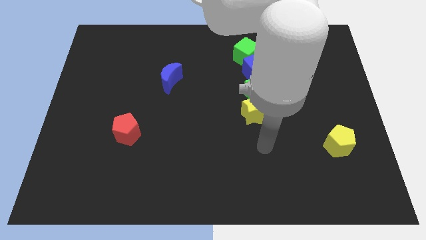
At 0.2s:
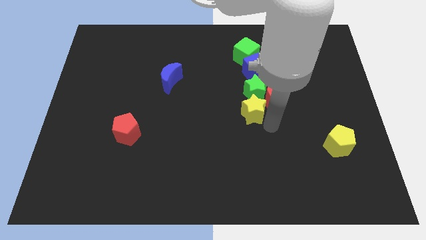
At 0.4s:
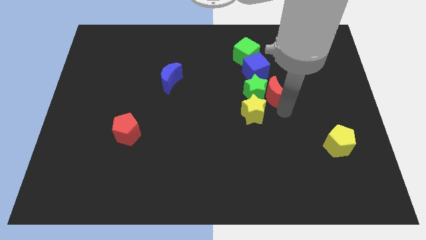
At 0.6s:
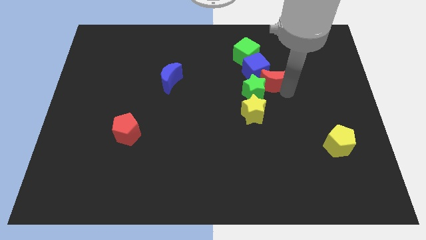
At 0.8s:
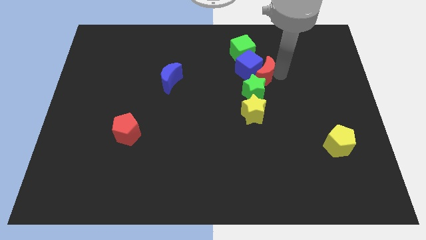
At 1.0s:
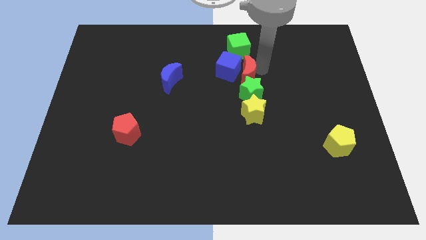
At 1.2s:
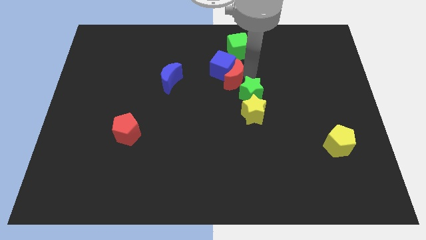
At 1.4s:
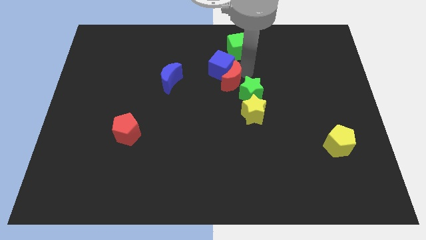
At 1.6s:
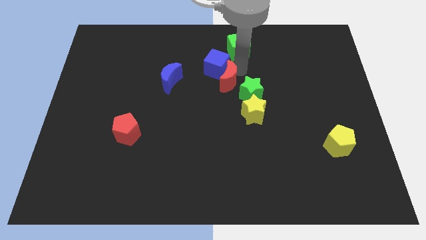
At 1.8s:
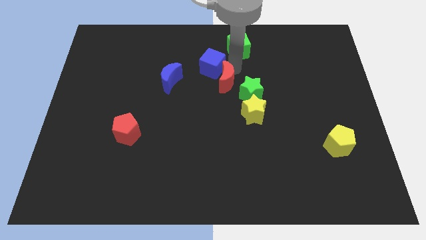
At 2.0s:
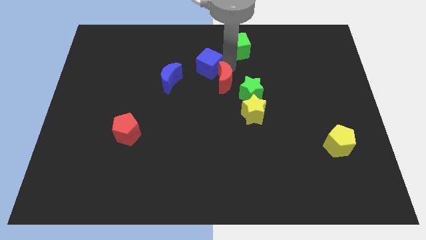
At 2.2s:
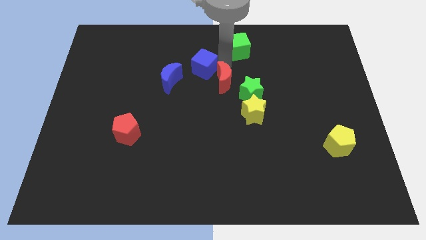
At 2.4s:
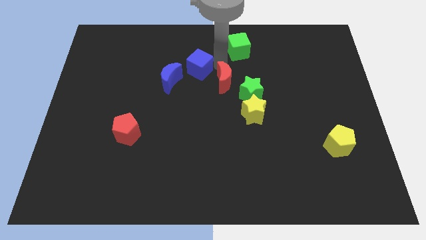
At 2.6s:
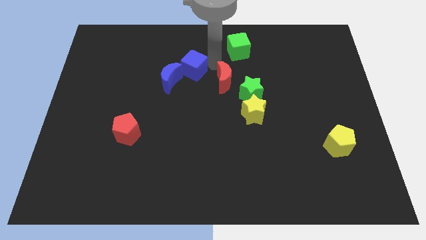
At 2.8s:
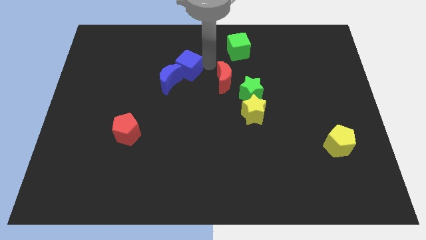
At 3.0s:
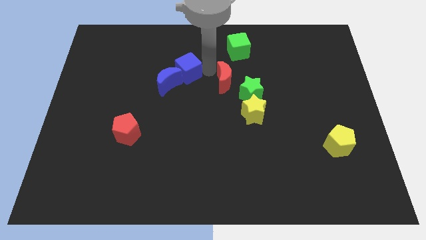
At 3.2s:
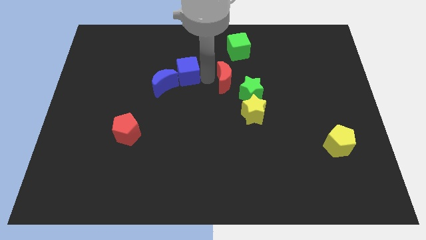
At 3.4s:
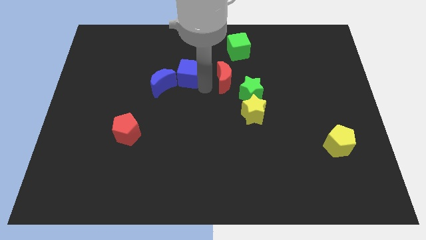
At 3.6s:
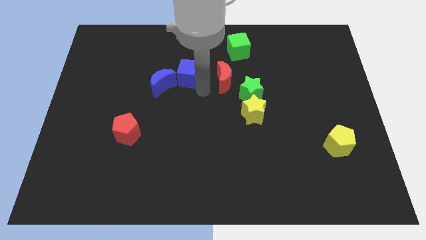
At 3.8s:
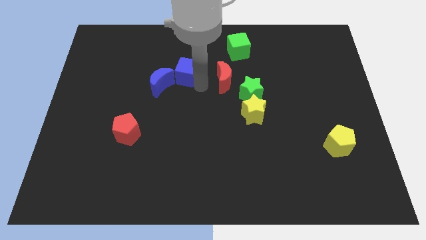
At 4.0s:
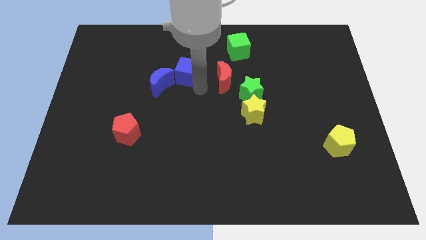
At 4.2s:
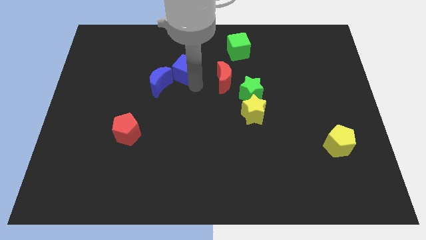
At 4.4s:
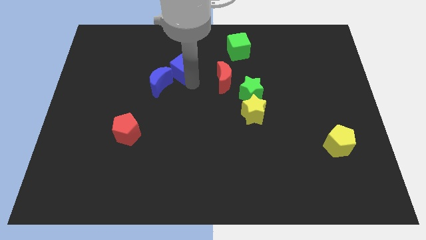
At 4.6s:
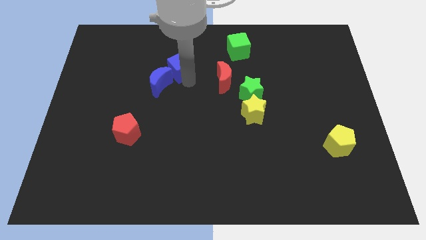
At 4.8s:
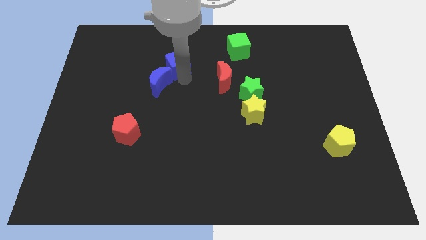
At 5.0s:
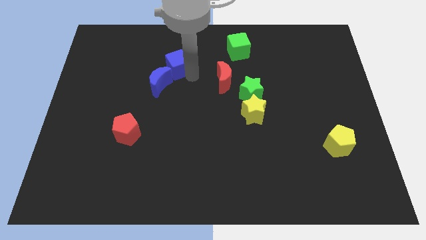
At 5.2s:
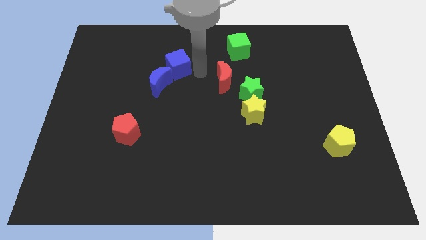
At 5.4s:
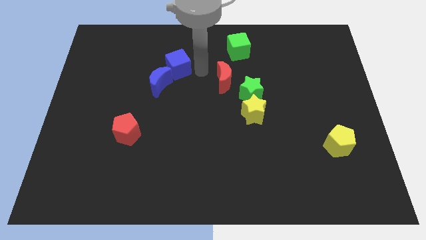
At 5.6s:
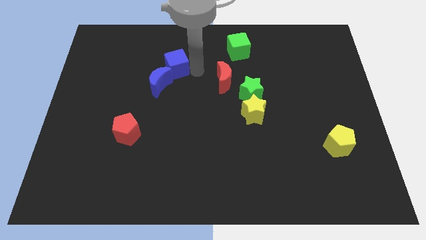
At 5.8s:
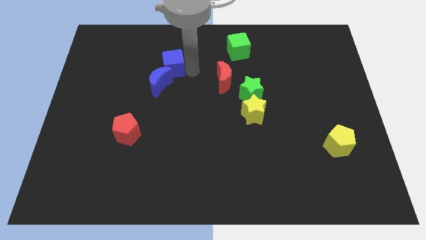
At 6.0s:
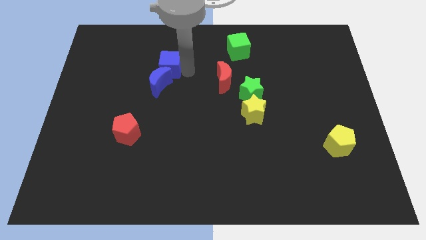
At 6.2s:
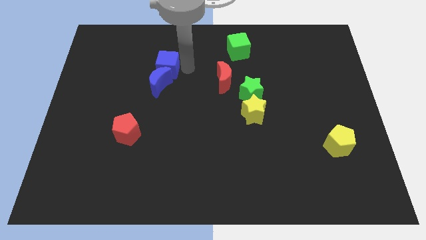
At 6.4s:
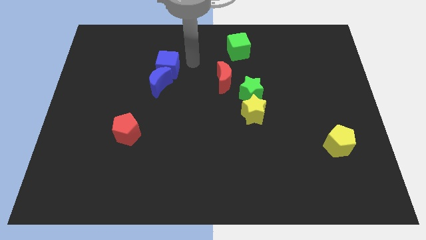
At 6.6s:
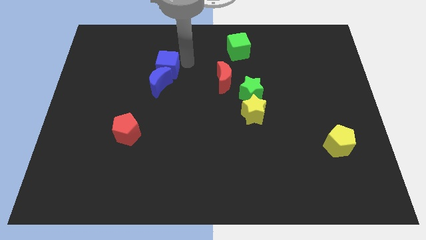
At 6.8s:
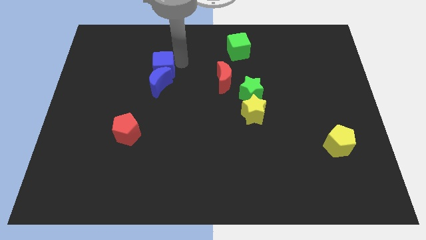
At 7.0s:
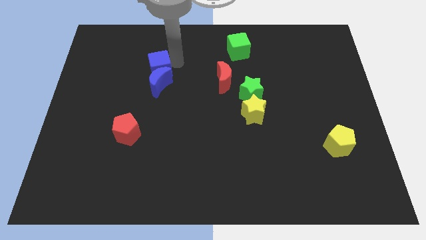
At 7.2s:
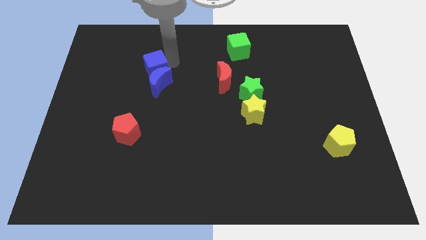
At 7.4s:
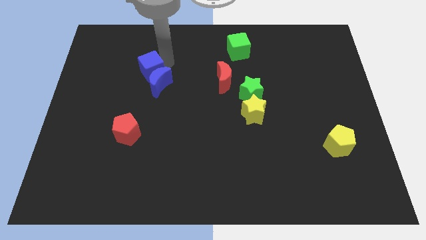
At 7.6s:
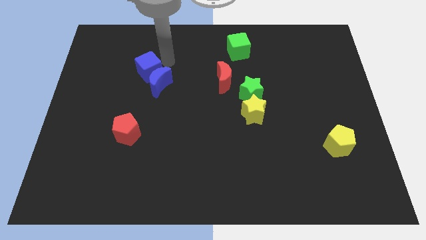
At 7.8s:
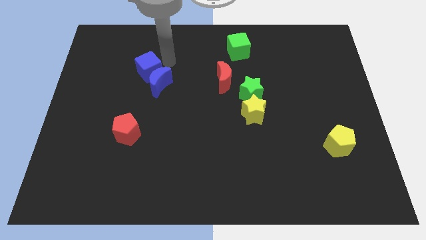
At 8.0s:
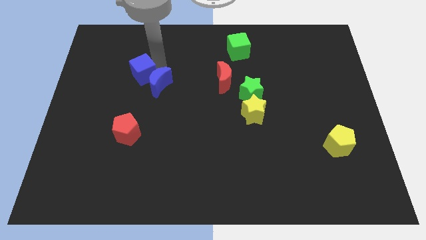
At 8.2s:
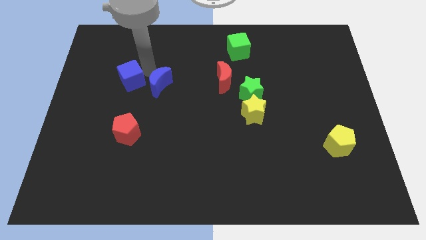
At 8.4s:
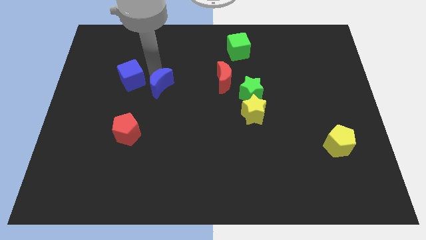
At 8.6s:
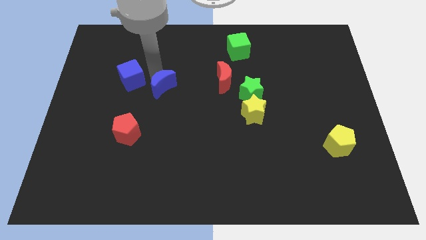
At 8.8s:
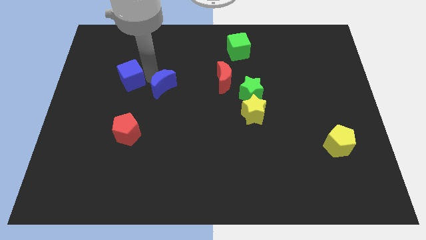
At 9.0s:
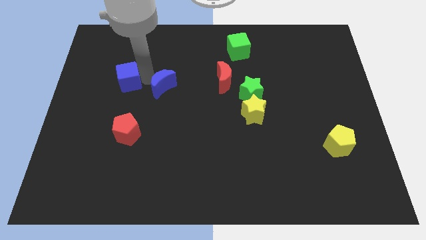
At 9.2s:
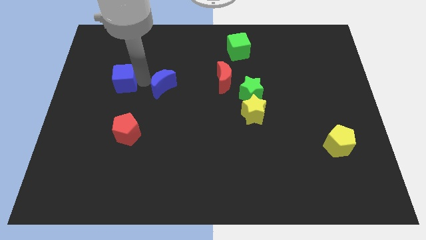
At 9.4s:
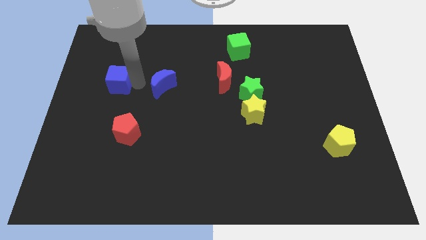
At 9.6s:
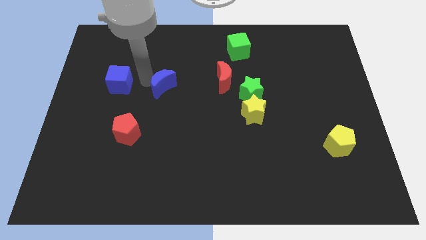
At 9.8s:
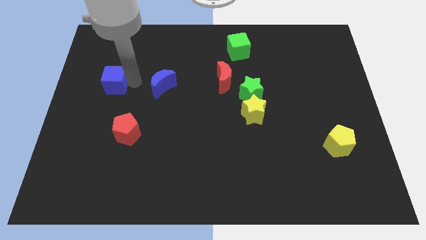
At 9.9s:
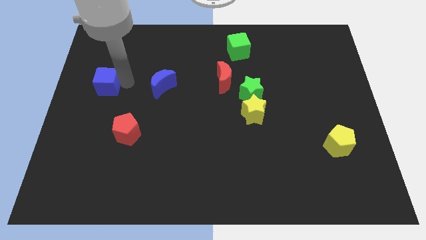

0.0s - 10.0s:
move the blue cube to the left side of the board

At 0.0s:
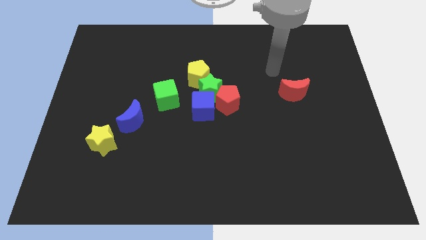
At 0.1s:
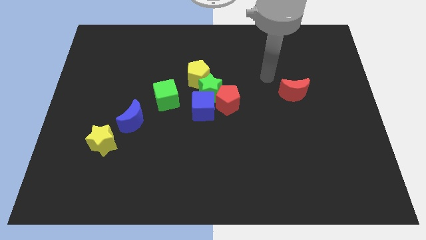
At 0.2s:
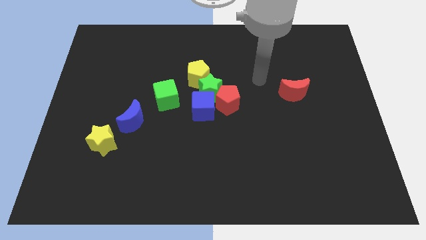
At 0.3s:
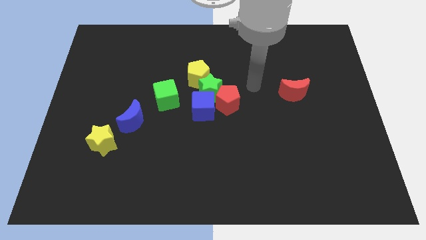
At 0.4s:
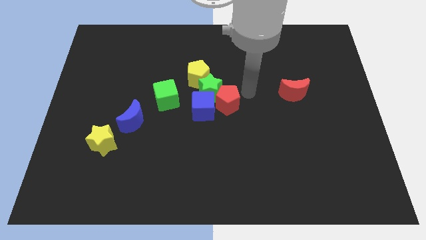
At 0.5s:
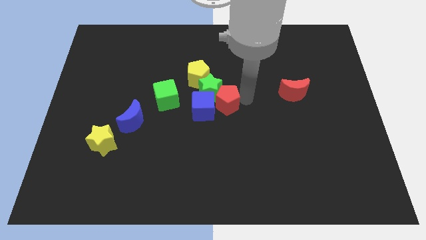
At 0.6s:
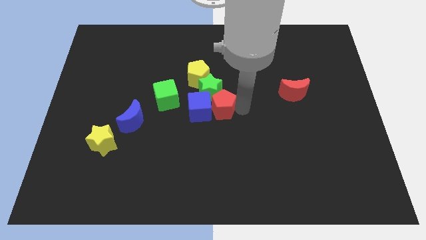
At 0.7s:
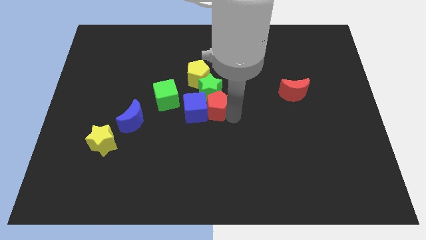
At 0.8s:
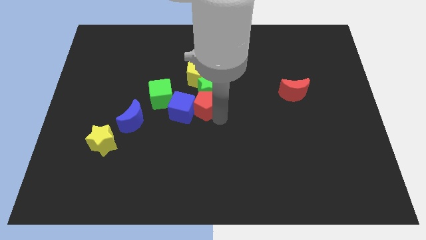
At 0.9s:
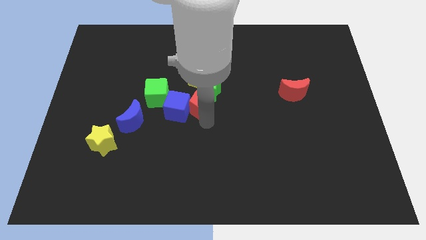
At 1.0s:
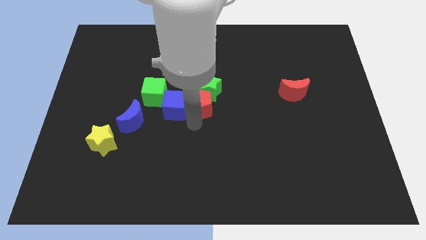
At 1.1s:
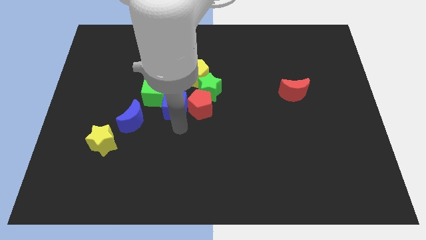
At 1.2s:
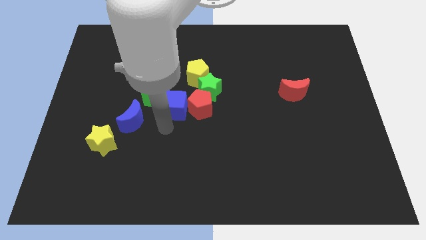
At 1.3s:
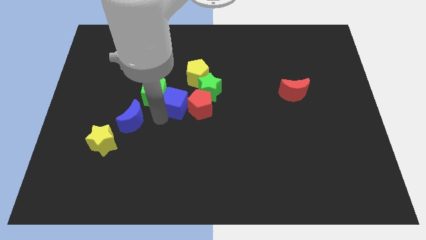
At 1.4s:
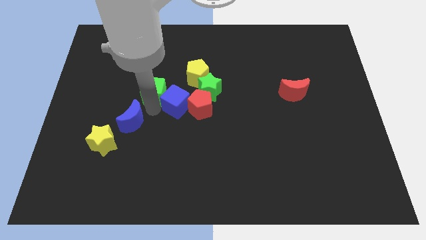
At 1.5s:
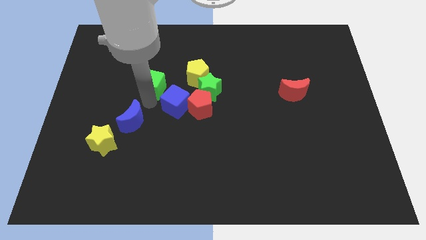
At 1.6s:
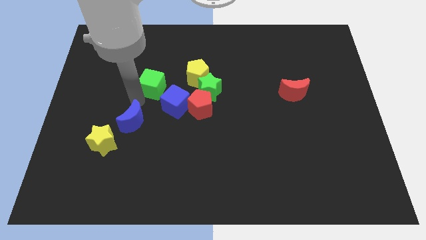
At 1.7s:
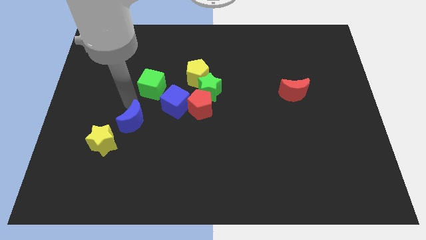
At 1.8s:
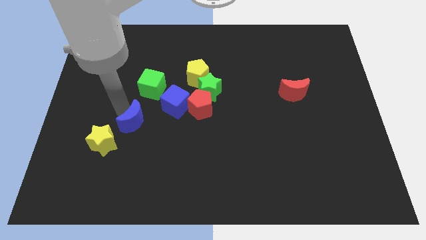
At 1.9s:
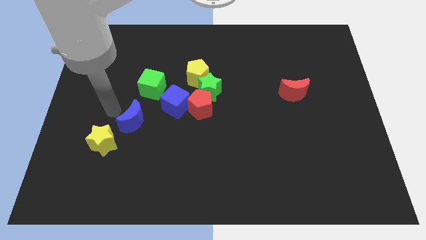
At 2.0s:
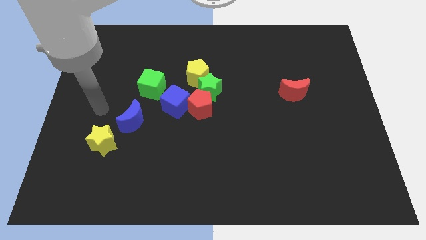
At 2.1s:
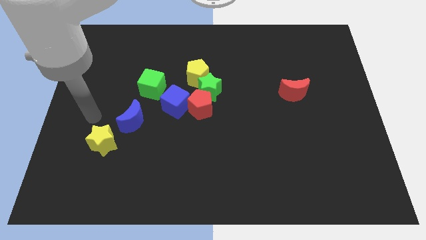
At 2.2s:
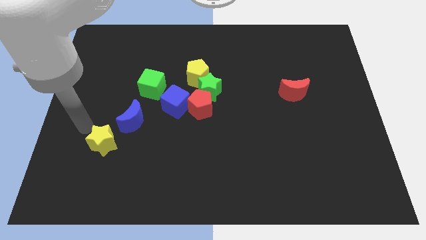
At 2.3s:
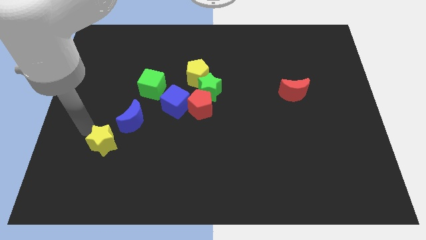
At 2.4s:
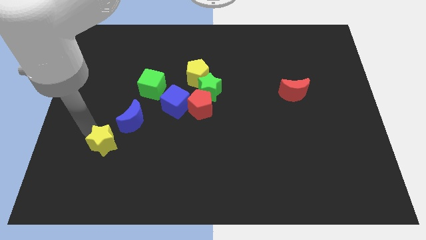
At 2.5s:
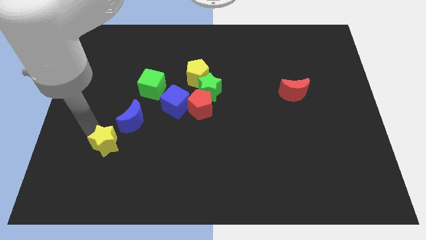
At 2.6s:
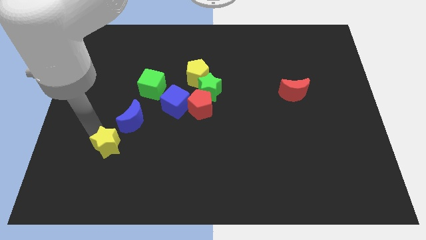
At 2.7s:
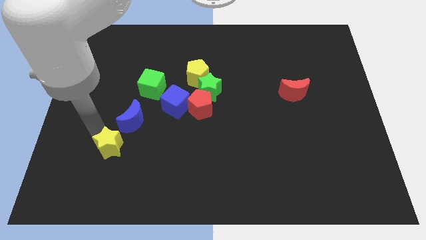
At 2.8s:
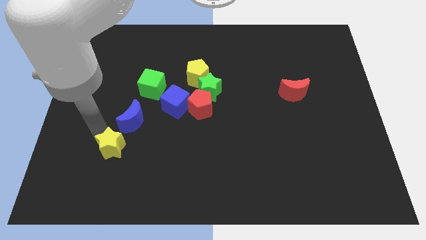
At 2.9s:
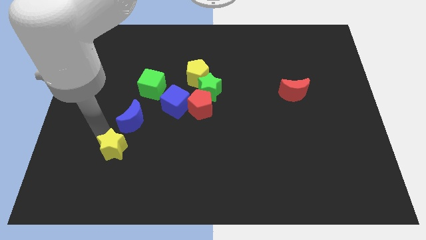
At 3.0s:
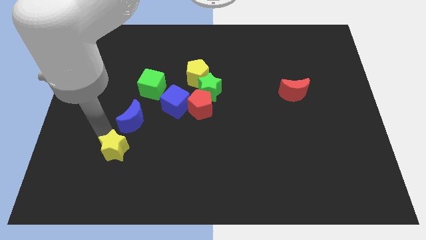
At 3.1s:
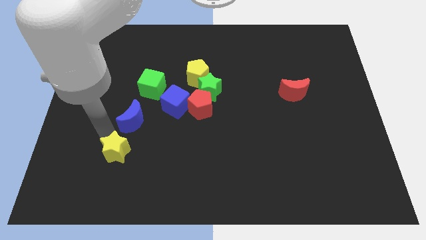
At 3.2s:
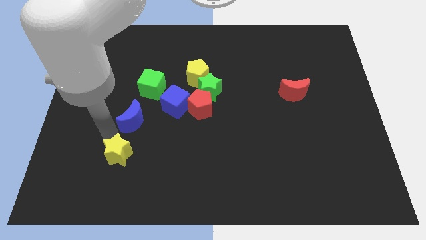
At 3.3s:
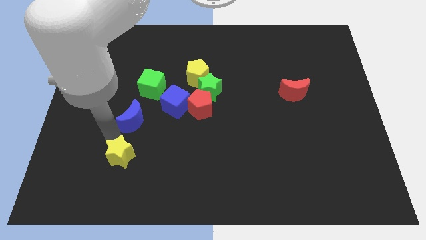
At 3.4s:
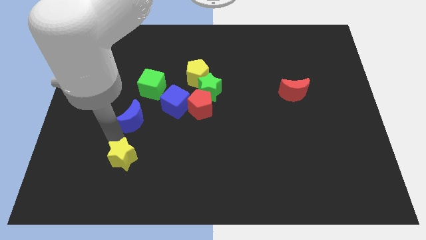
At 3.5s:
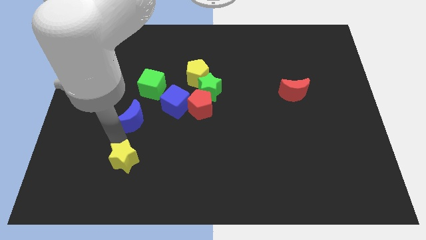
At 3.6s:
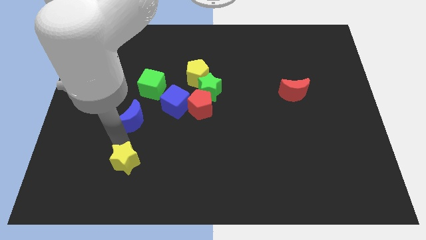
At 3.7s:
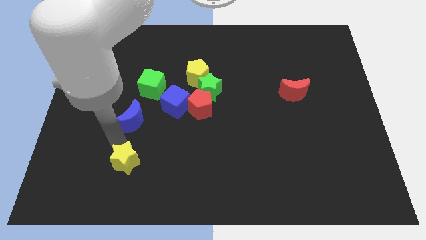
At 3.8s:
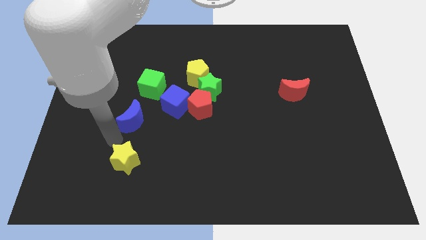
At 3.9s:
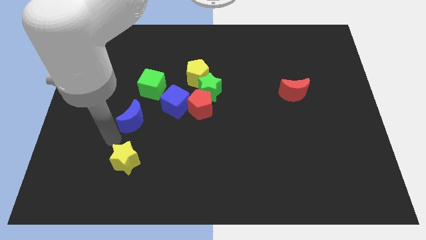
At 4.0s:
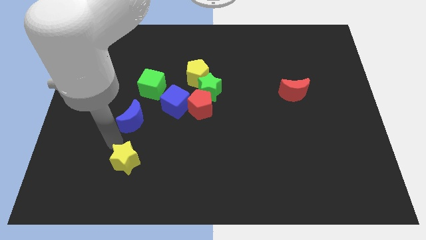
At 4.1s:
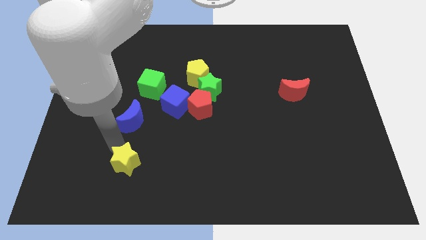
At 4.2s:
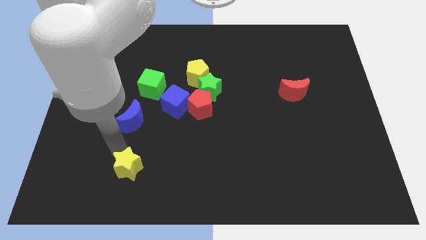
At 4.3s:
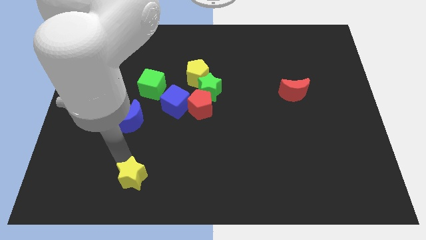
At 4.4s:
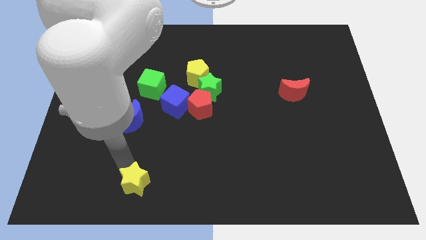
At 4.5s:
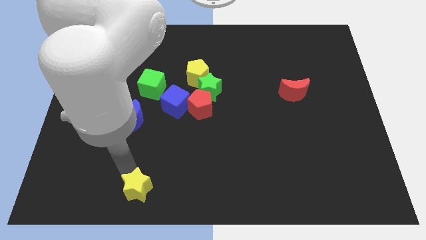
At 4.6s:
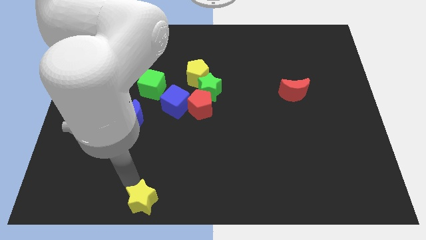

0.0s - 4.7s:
put the yellow star to the bottom
